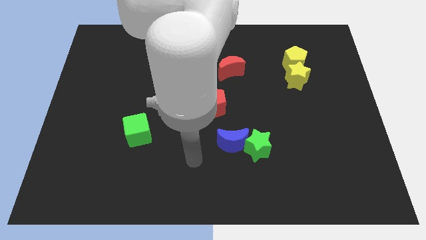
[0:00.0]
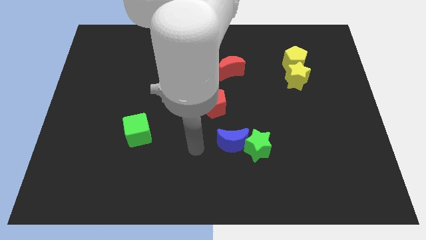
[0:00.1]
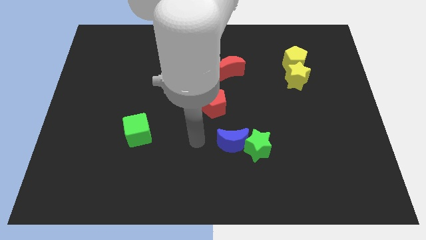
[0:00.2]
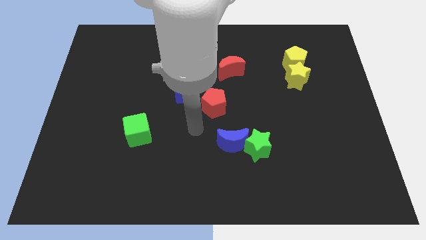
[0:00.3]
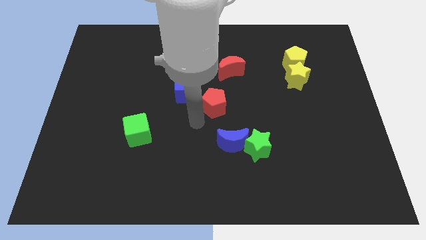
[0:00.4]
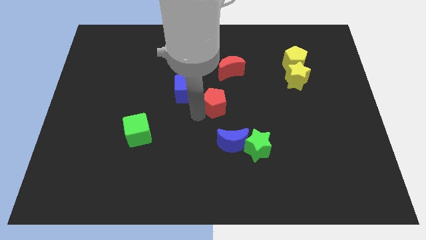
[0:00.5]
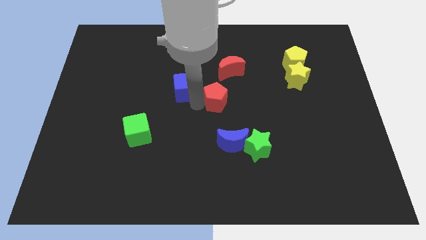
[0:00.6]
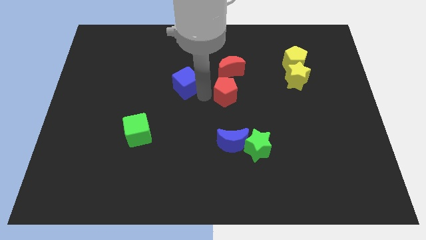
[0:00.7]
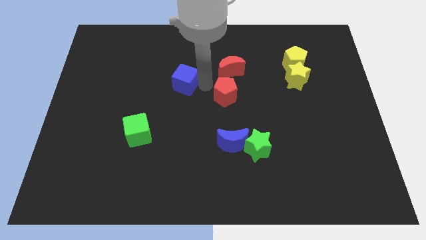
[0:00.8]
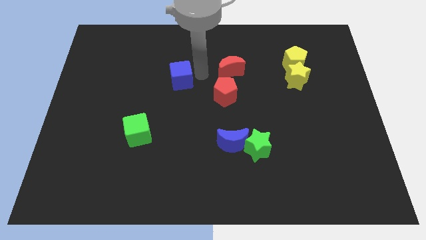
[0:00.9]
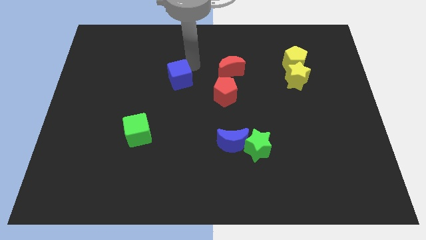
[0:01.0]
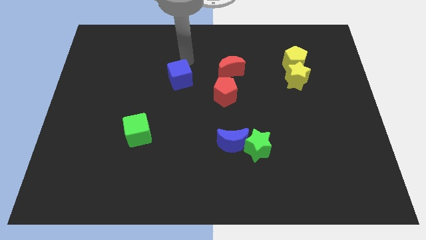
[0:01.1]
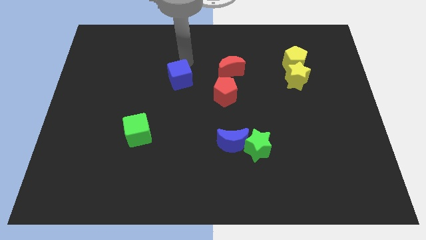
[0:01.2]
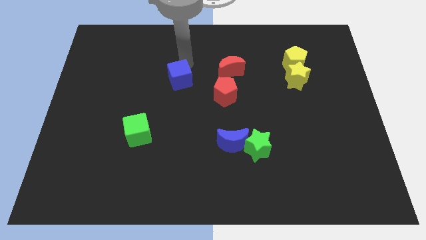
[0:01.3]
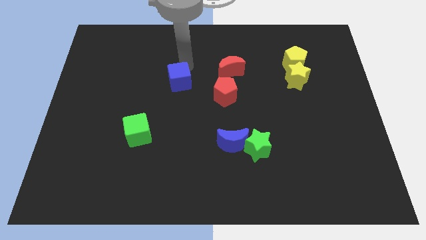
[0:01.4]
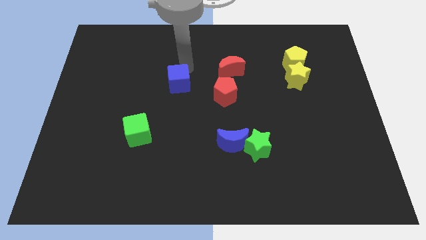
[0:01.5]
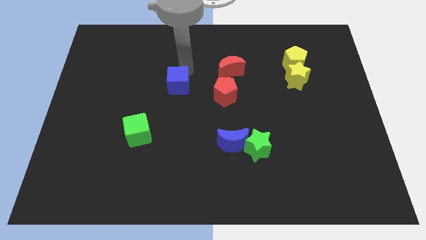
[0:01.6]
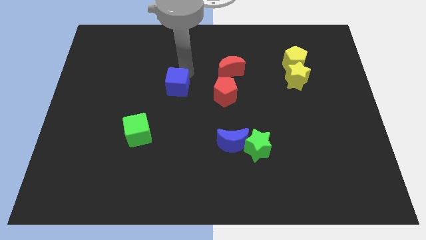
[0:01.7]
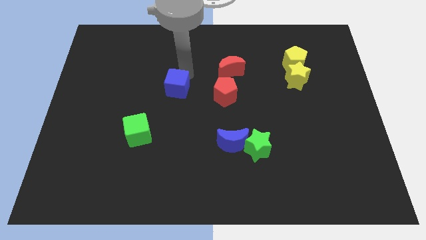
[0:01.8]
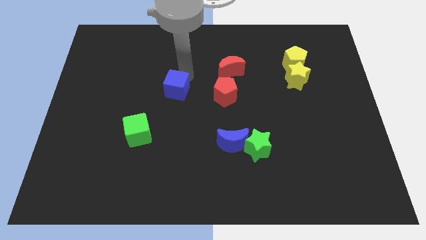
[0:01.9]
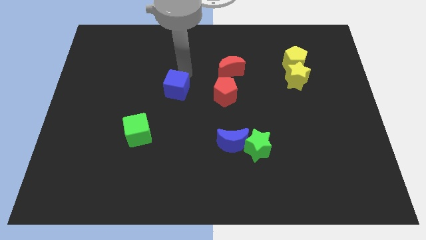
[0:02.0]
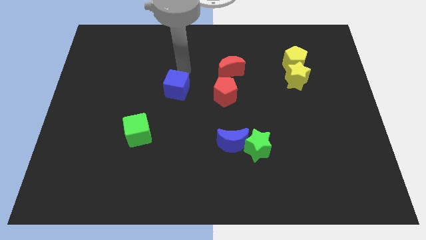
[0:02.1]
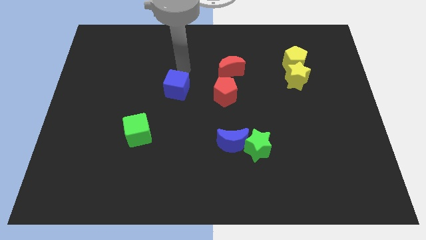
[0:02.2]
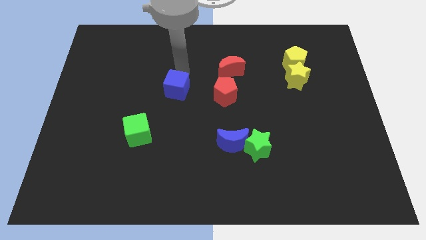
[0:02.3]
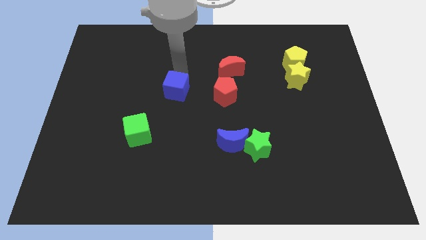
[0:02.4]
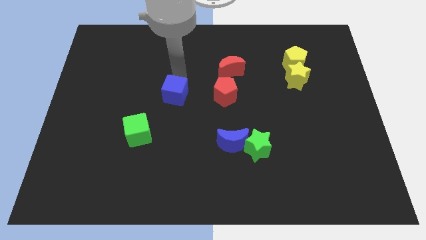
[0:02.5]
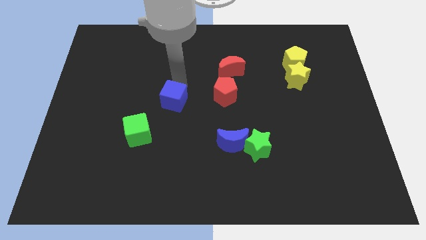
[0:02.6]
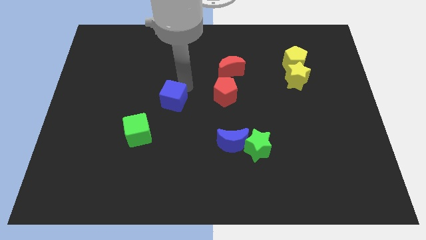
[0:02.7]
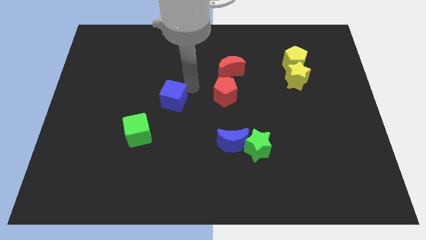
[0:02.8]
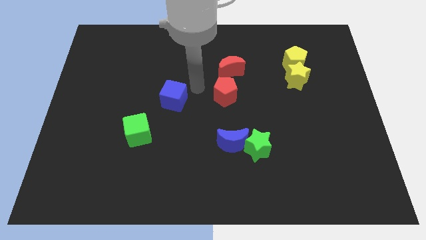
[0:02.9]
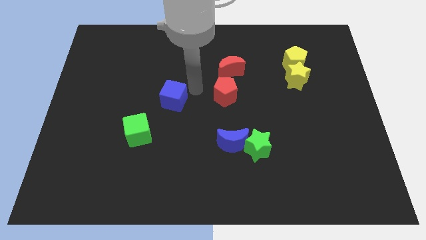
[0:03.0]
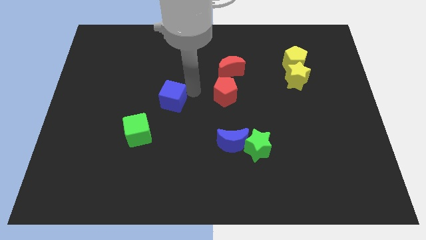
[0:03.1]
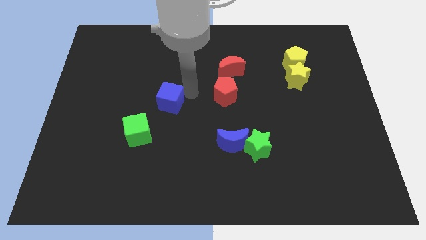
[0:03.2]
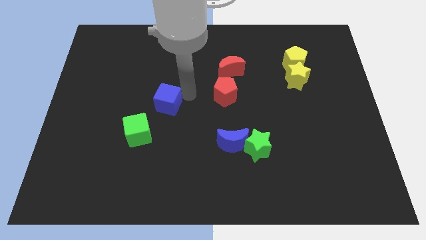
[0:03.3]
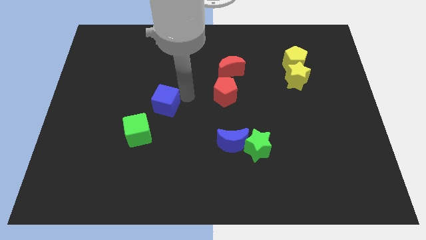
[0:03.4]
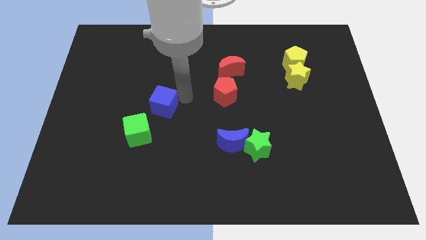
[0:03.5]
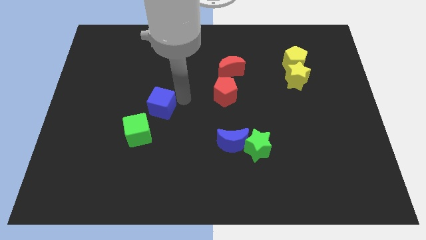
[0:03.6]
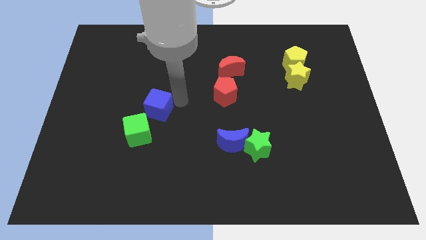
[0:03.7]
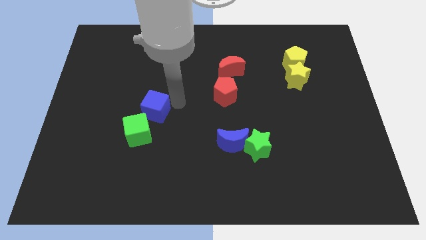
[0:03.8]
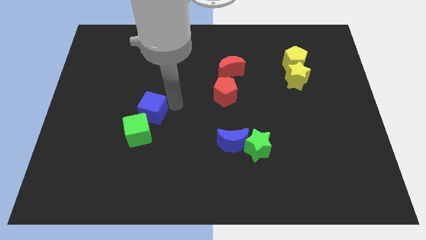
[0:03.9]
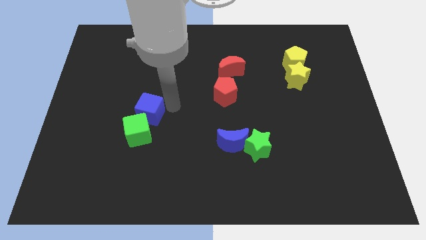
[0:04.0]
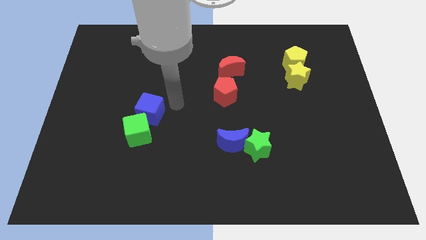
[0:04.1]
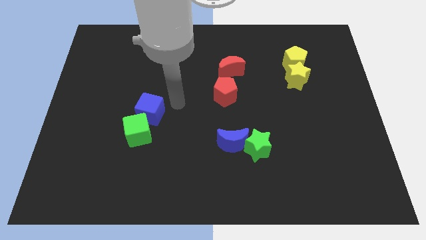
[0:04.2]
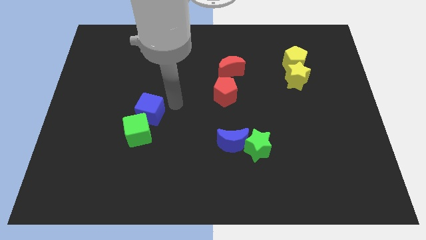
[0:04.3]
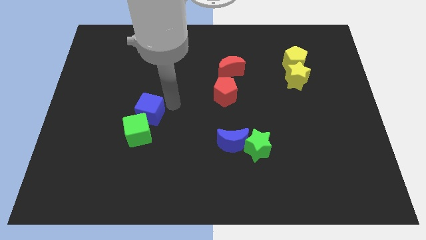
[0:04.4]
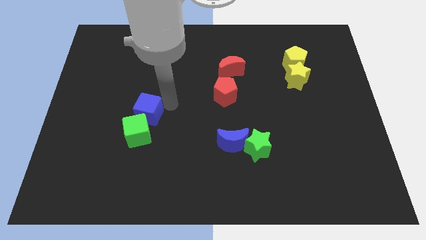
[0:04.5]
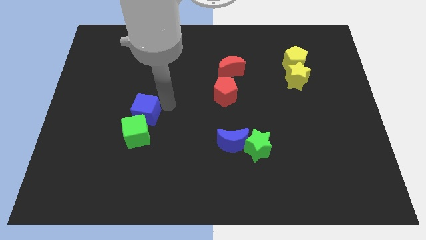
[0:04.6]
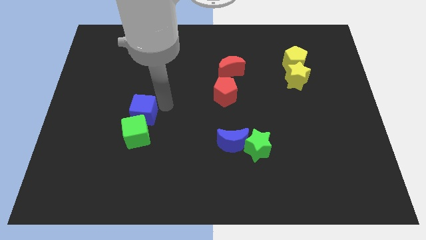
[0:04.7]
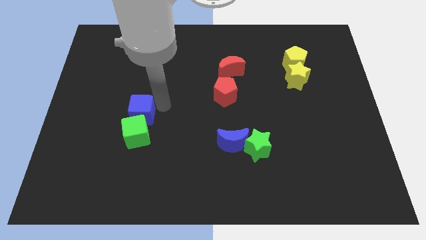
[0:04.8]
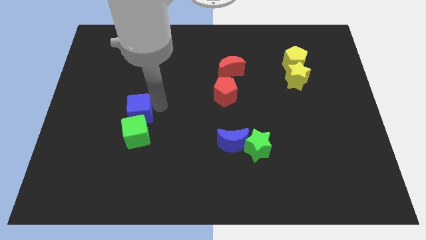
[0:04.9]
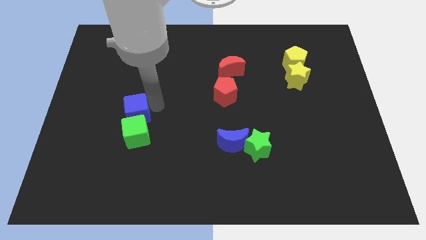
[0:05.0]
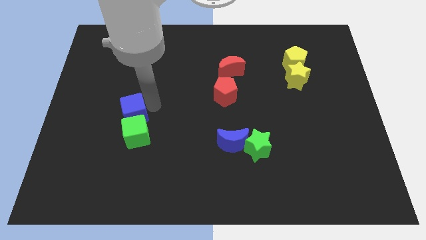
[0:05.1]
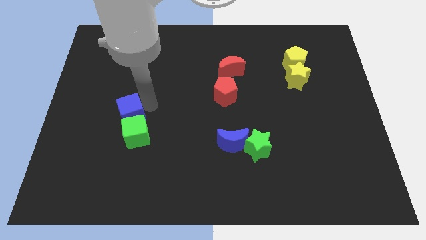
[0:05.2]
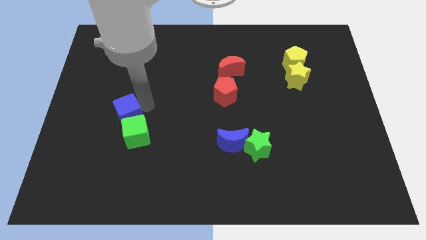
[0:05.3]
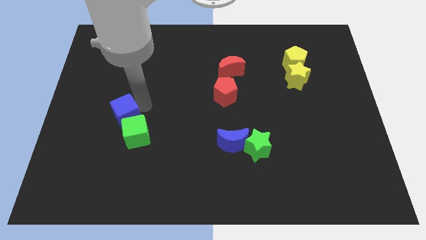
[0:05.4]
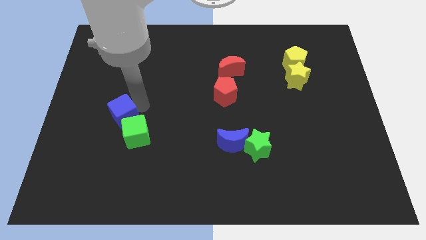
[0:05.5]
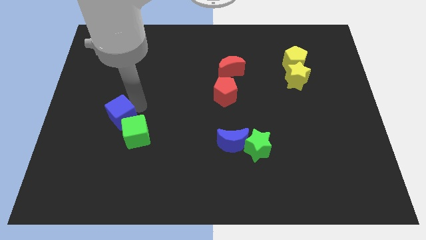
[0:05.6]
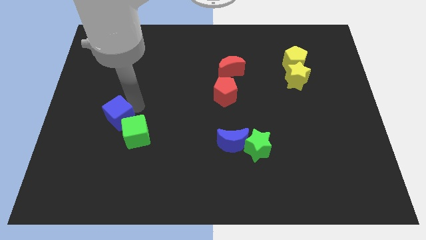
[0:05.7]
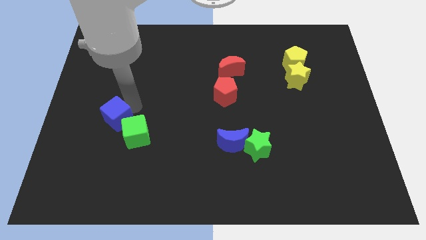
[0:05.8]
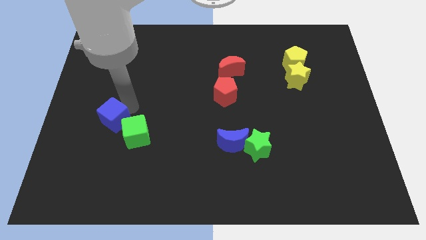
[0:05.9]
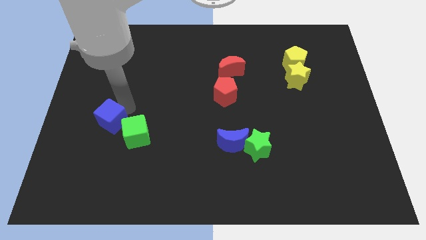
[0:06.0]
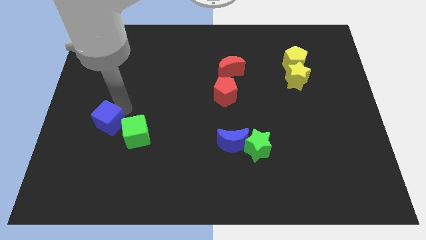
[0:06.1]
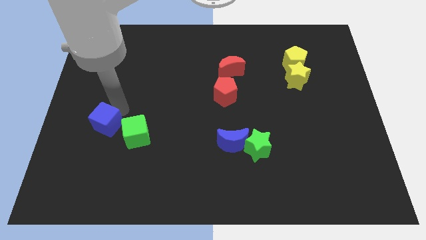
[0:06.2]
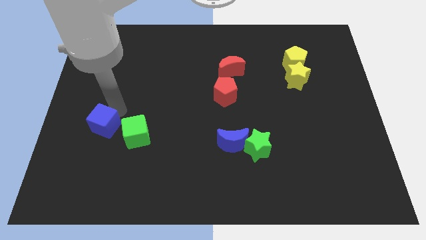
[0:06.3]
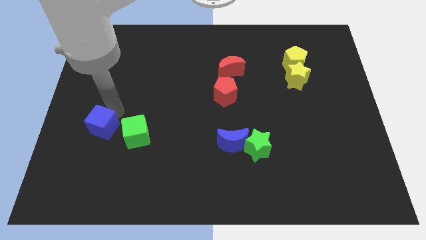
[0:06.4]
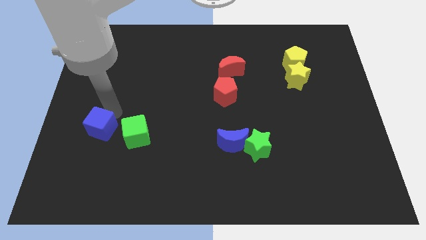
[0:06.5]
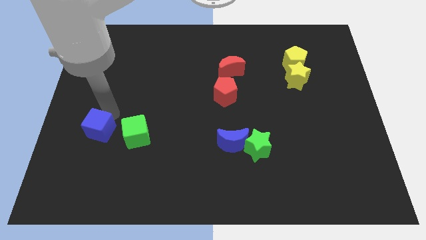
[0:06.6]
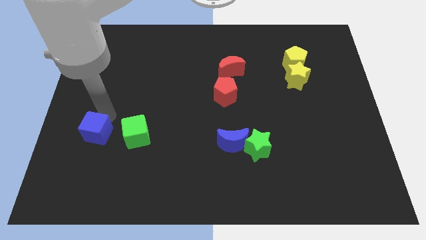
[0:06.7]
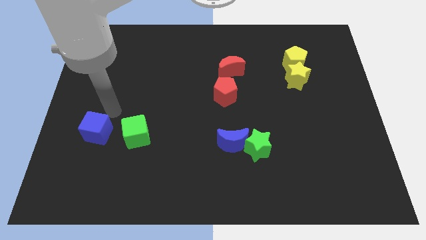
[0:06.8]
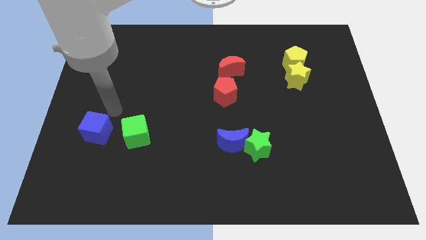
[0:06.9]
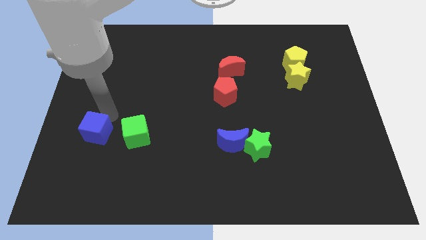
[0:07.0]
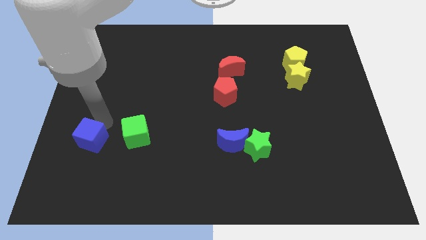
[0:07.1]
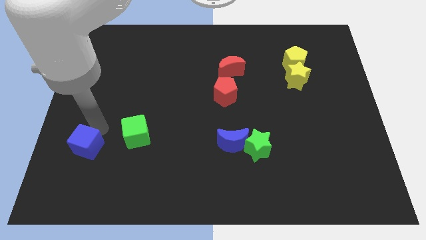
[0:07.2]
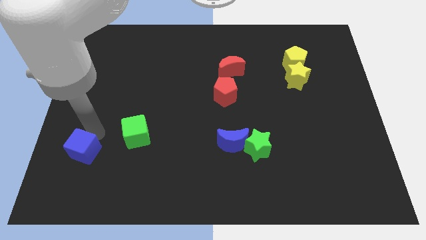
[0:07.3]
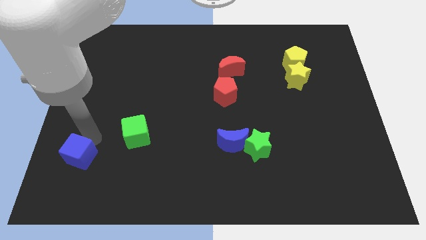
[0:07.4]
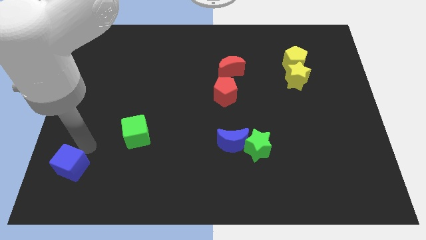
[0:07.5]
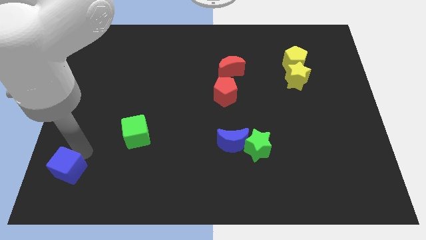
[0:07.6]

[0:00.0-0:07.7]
push the blue cube to the lower left corner

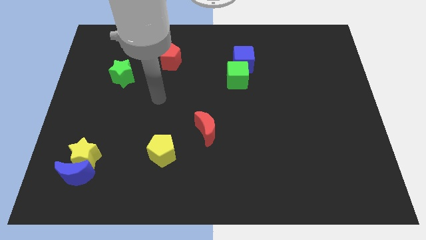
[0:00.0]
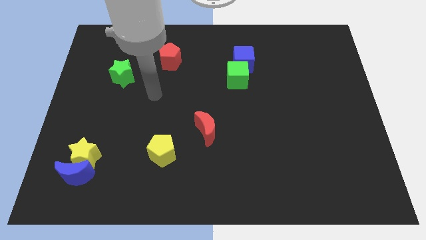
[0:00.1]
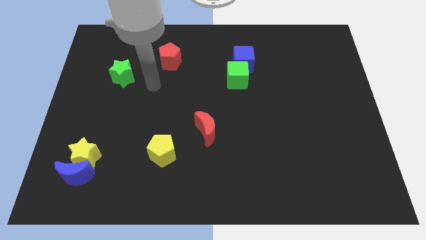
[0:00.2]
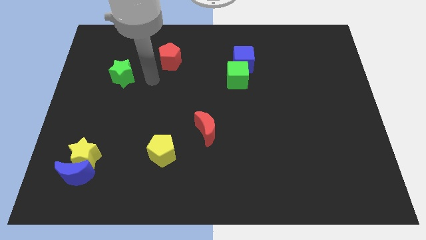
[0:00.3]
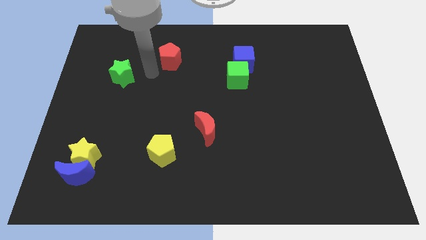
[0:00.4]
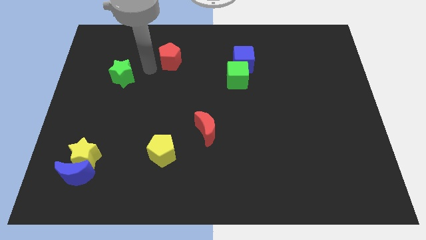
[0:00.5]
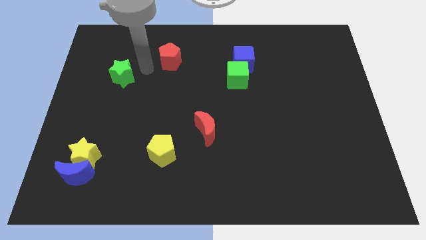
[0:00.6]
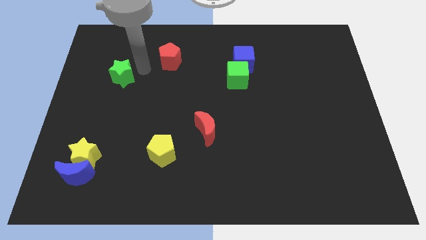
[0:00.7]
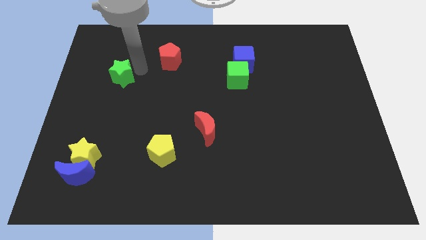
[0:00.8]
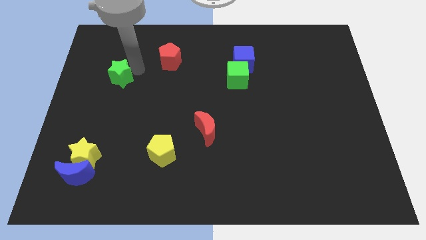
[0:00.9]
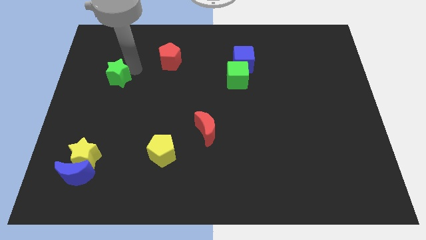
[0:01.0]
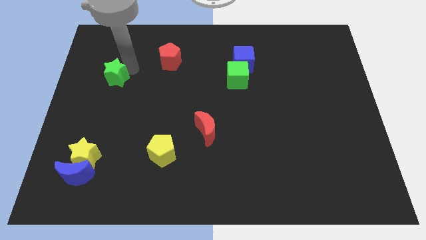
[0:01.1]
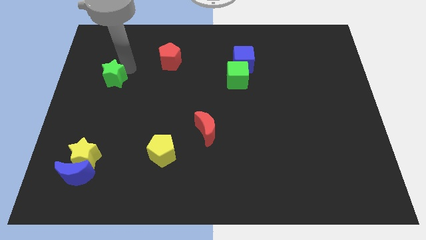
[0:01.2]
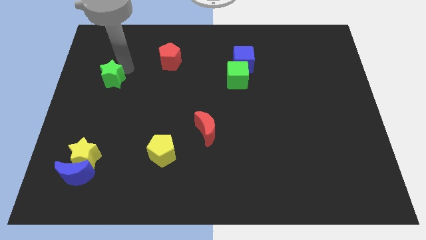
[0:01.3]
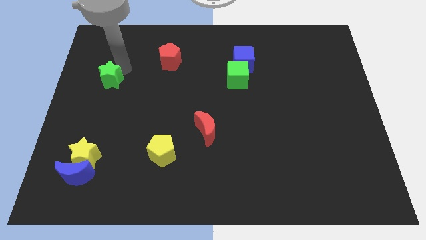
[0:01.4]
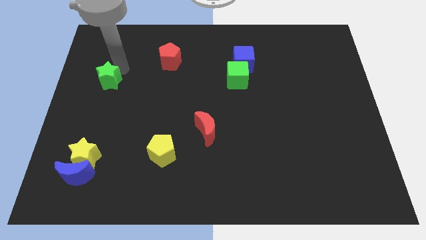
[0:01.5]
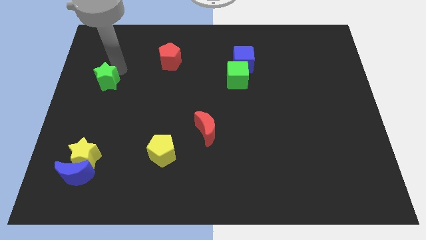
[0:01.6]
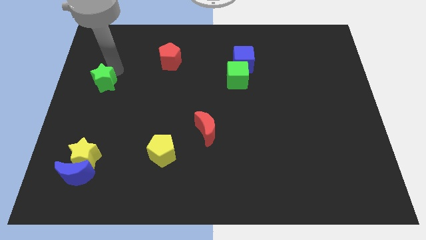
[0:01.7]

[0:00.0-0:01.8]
put the green star to the center left
